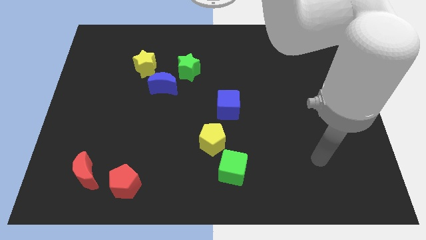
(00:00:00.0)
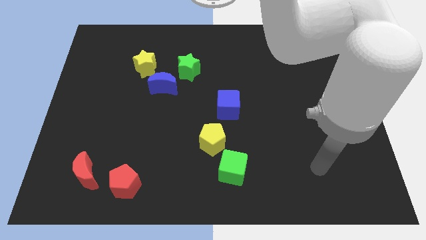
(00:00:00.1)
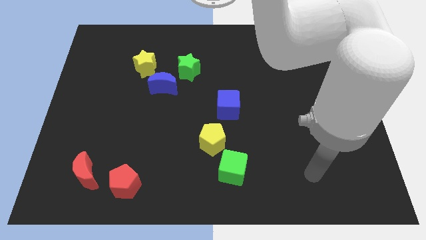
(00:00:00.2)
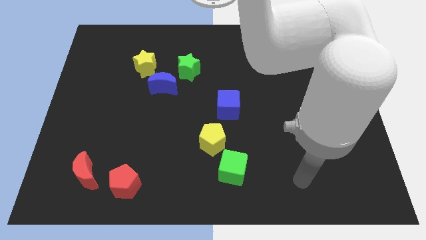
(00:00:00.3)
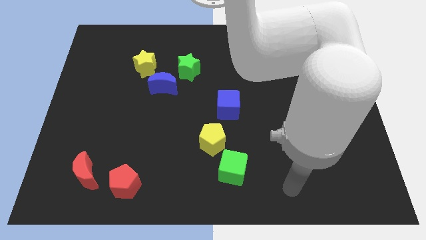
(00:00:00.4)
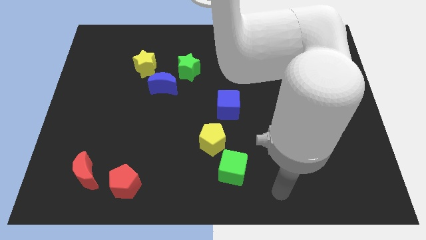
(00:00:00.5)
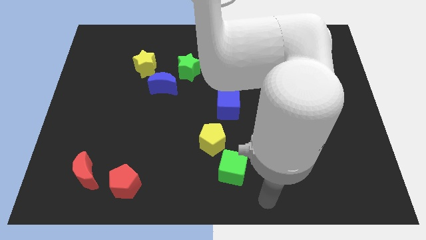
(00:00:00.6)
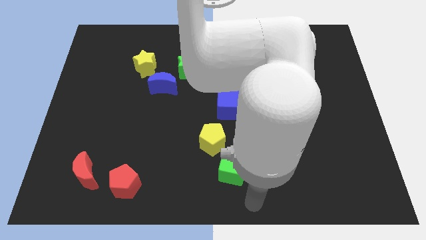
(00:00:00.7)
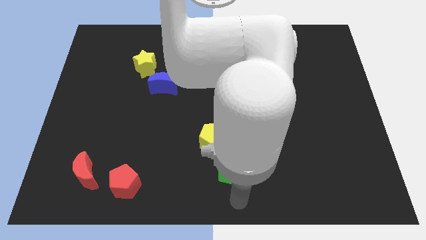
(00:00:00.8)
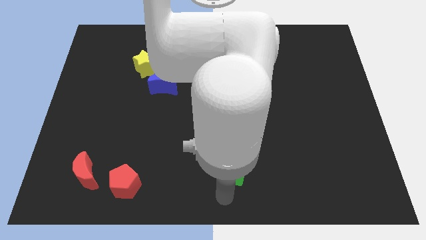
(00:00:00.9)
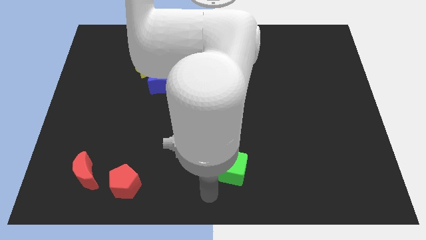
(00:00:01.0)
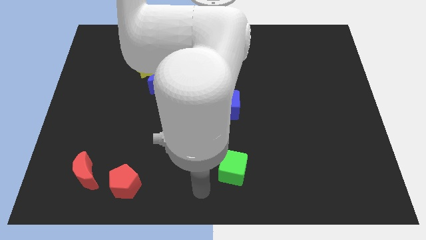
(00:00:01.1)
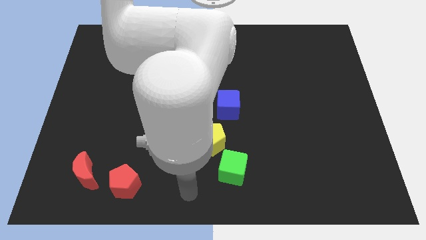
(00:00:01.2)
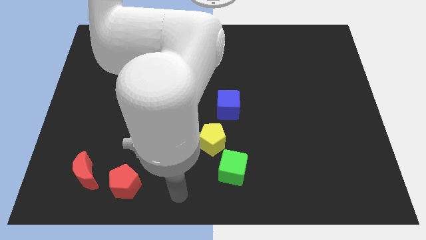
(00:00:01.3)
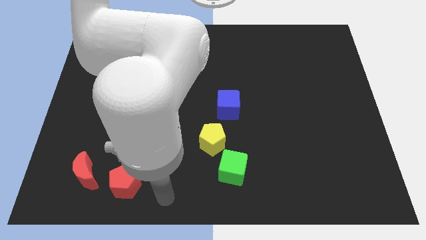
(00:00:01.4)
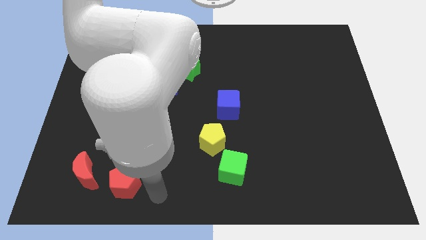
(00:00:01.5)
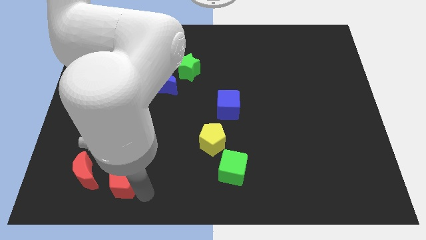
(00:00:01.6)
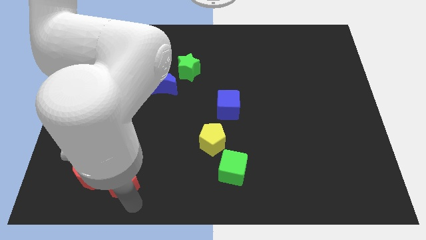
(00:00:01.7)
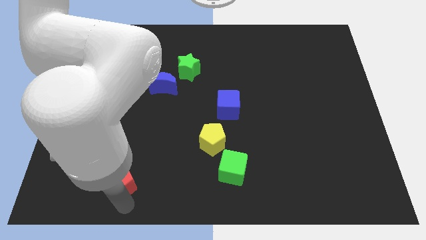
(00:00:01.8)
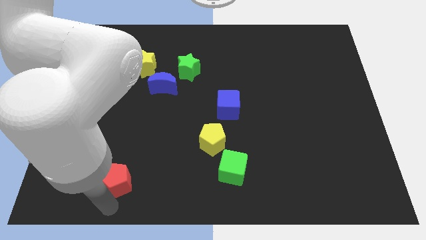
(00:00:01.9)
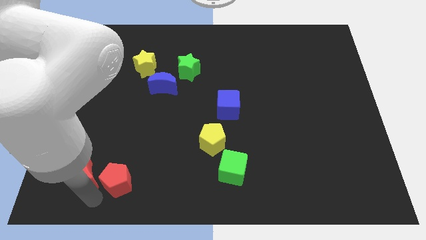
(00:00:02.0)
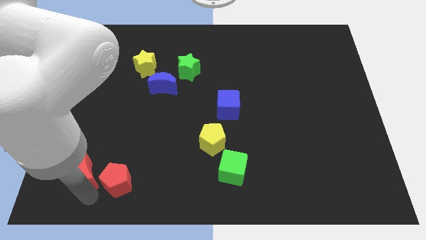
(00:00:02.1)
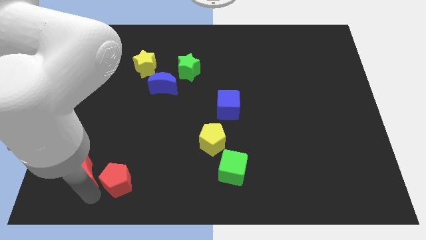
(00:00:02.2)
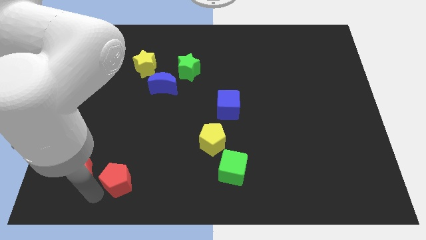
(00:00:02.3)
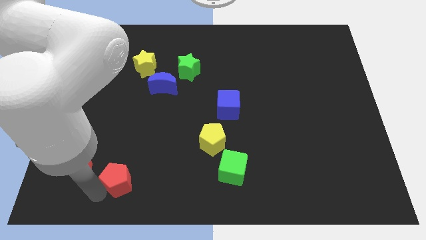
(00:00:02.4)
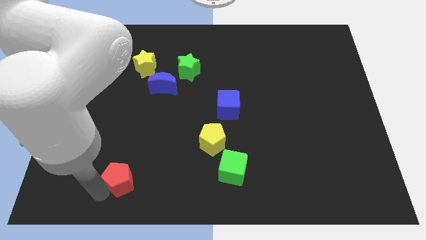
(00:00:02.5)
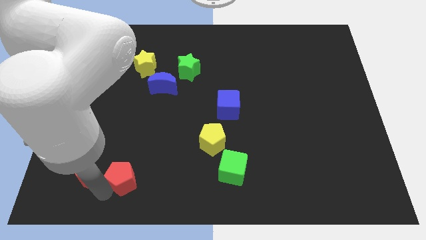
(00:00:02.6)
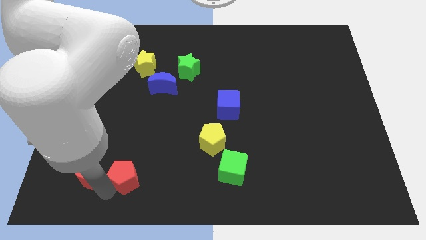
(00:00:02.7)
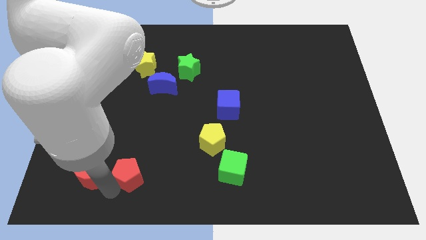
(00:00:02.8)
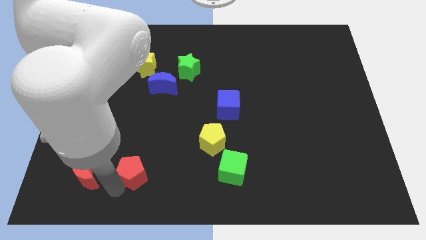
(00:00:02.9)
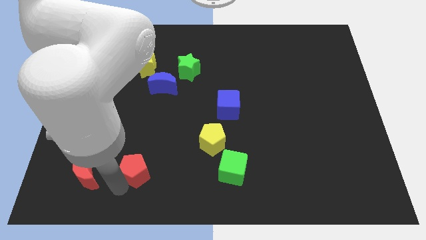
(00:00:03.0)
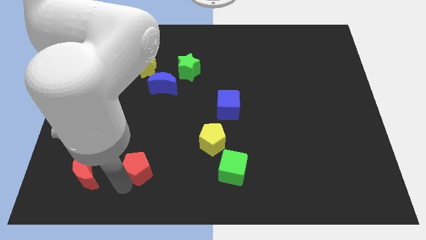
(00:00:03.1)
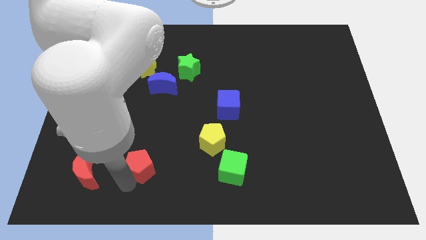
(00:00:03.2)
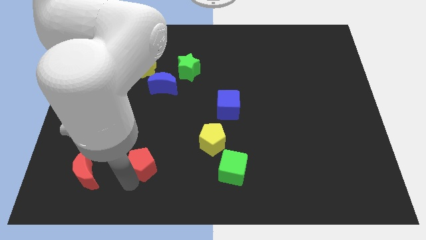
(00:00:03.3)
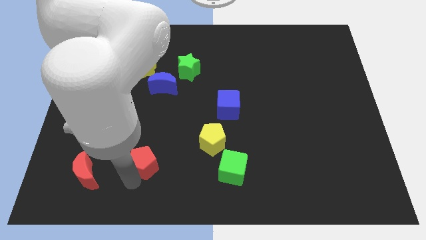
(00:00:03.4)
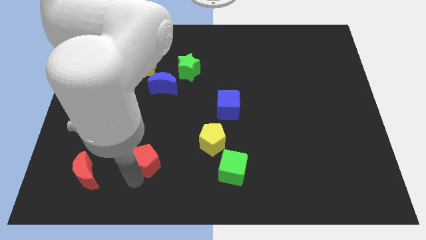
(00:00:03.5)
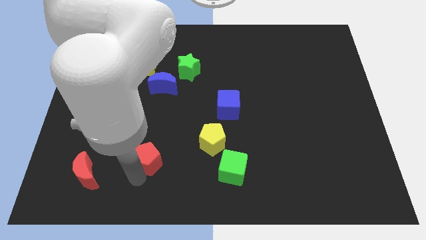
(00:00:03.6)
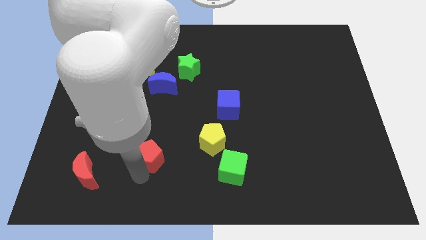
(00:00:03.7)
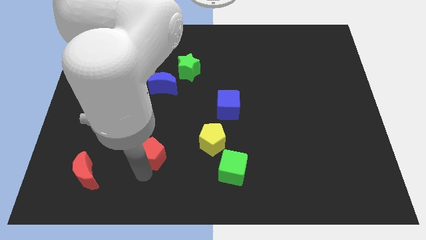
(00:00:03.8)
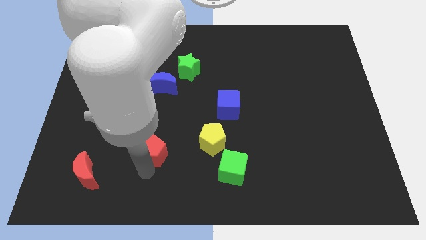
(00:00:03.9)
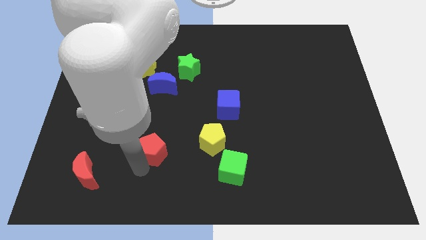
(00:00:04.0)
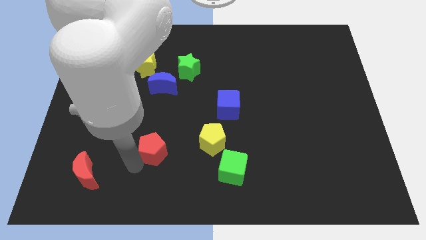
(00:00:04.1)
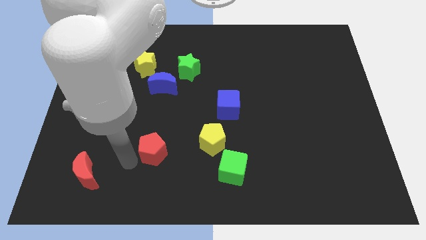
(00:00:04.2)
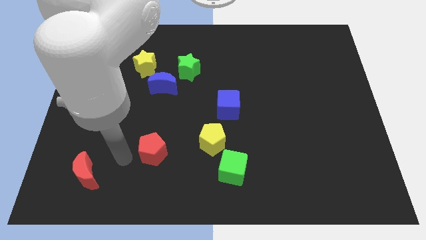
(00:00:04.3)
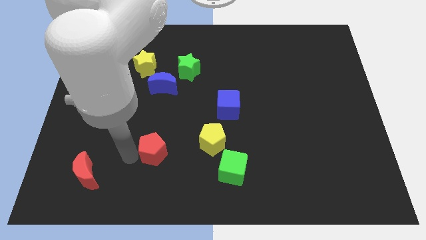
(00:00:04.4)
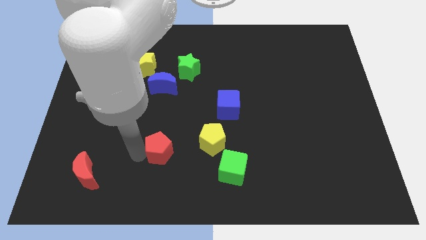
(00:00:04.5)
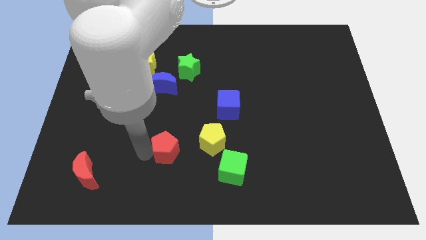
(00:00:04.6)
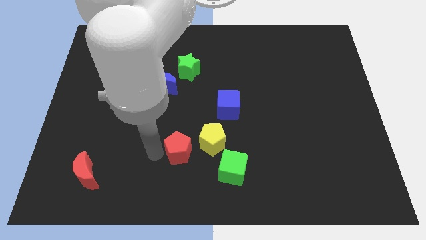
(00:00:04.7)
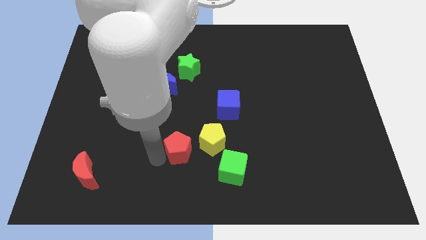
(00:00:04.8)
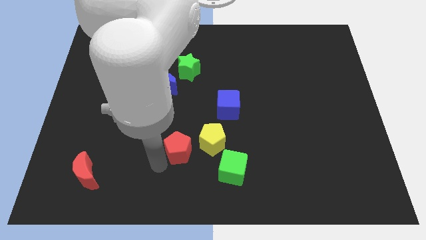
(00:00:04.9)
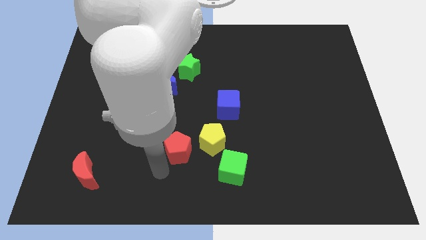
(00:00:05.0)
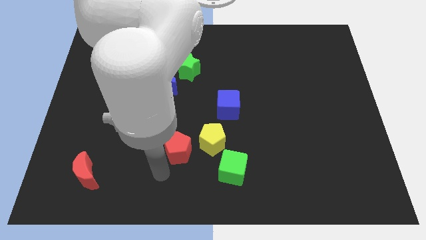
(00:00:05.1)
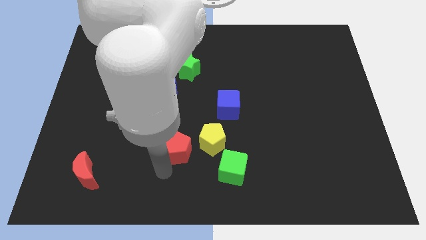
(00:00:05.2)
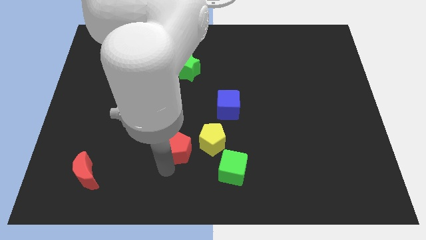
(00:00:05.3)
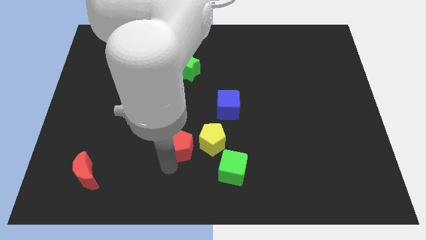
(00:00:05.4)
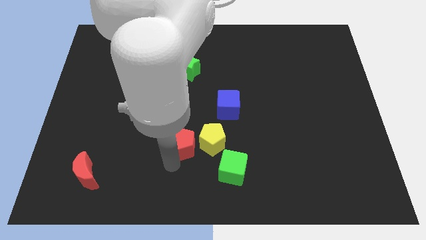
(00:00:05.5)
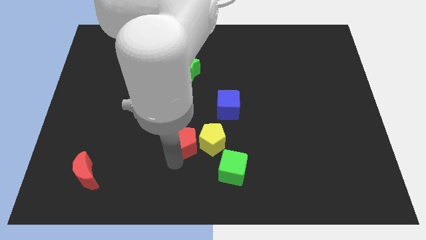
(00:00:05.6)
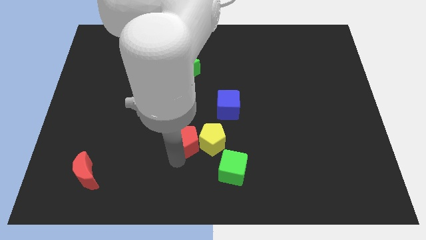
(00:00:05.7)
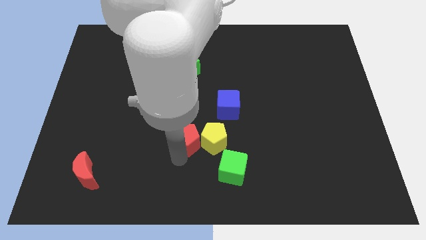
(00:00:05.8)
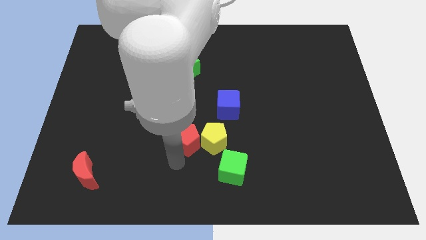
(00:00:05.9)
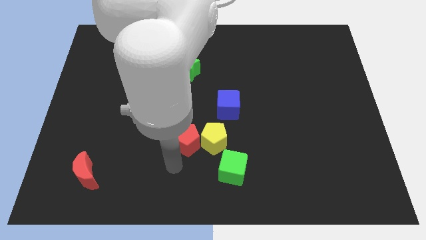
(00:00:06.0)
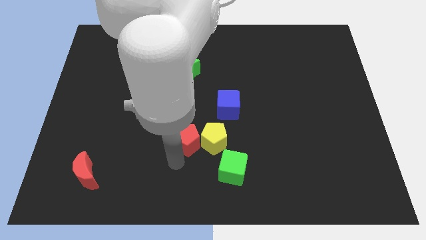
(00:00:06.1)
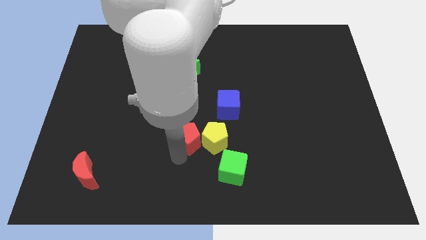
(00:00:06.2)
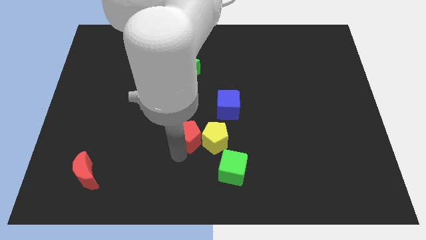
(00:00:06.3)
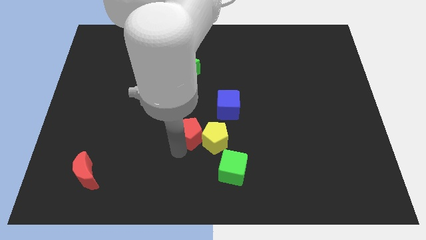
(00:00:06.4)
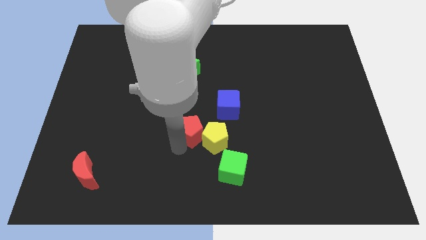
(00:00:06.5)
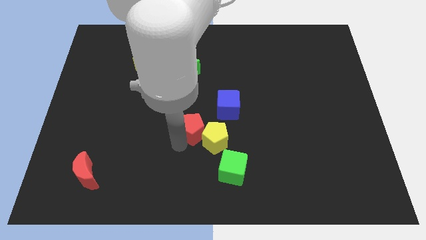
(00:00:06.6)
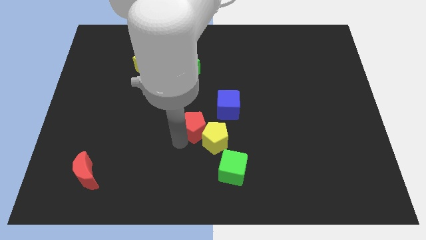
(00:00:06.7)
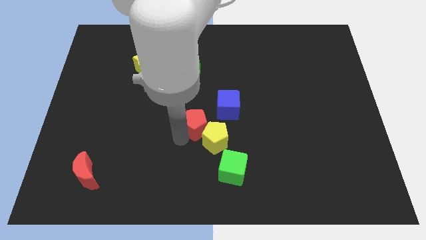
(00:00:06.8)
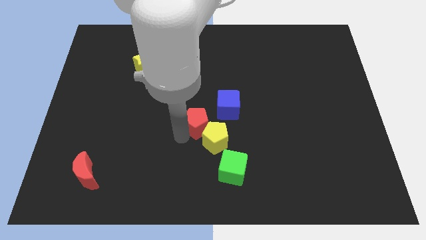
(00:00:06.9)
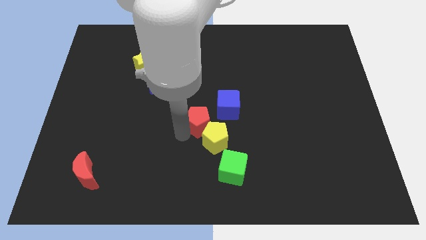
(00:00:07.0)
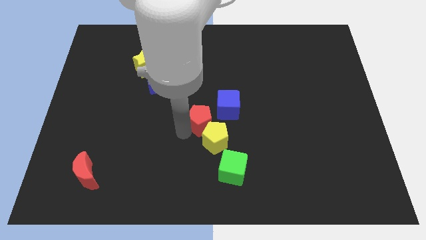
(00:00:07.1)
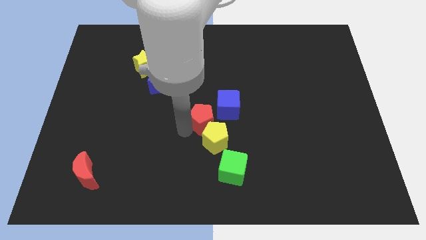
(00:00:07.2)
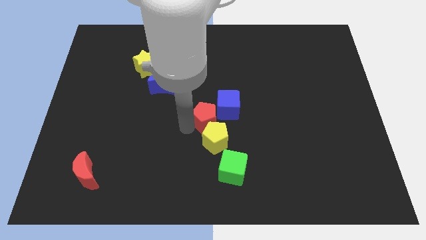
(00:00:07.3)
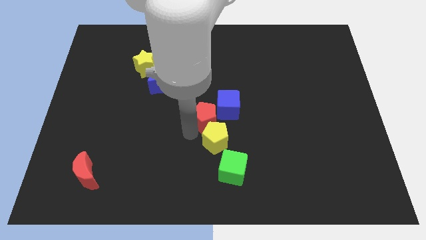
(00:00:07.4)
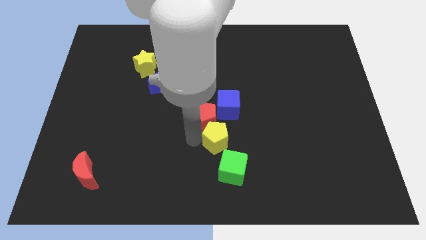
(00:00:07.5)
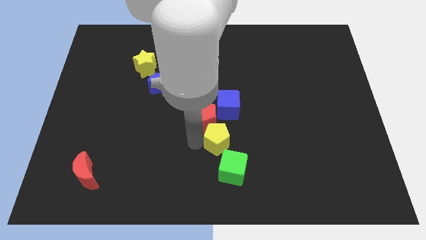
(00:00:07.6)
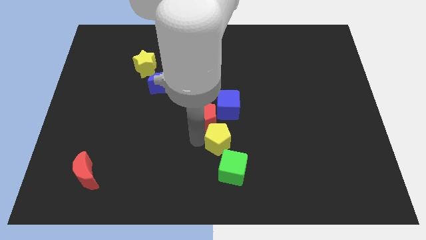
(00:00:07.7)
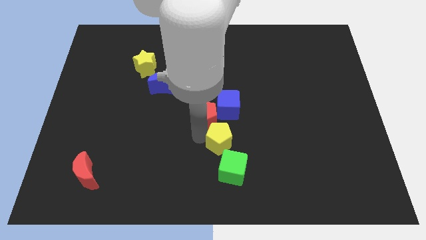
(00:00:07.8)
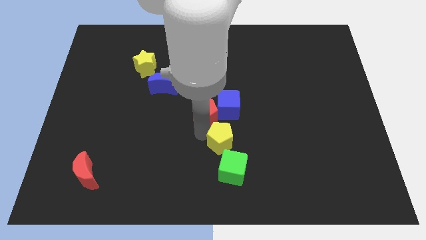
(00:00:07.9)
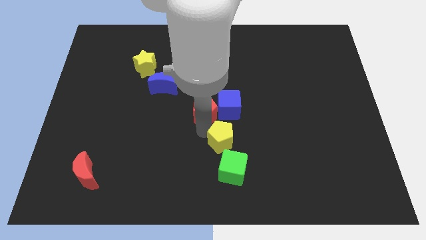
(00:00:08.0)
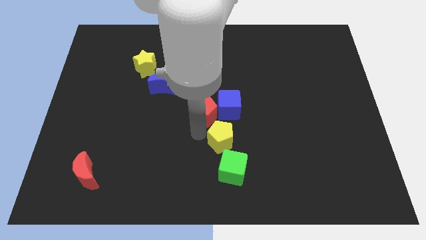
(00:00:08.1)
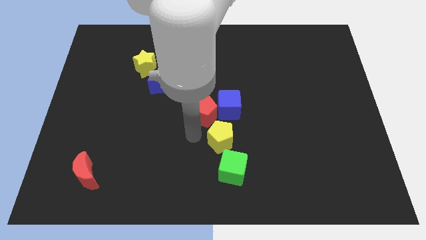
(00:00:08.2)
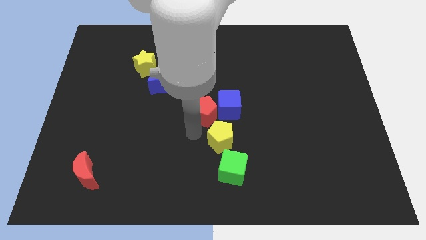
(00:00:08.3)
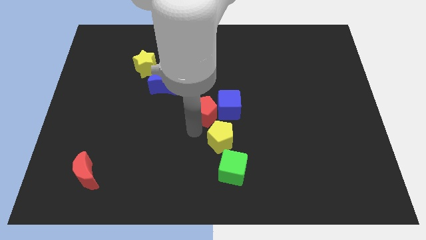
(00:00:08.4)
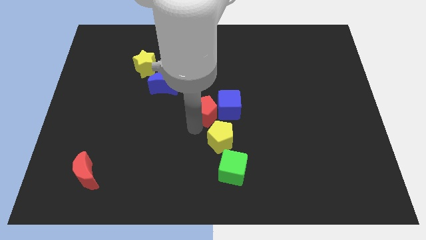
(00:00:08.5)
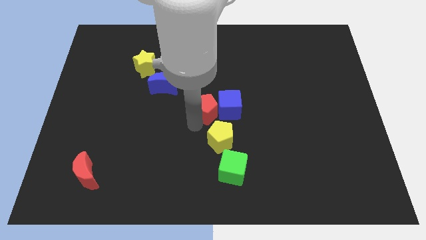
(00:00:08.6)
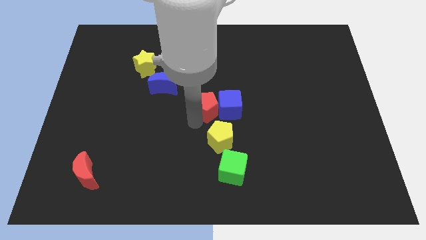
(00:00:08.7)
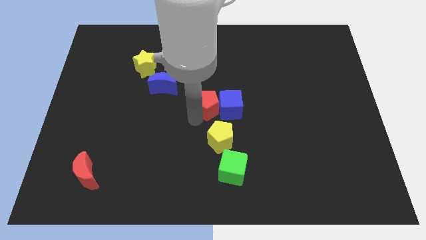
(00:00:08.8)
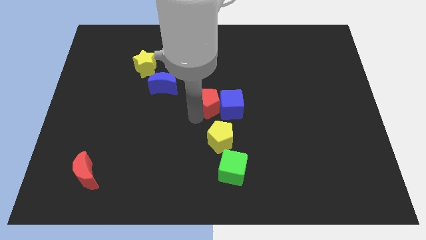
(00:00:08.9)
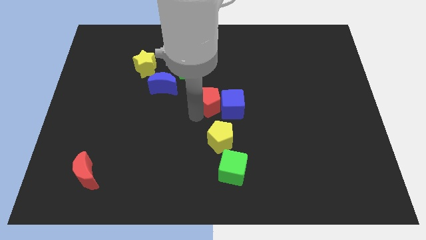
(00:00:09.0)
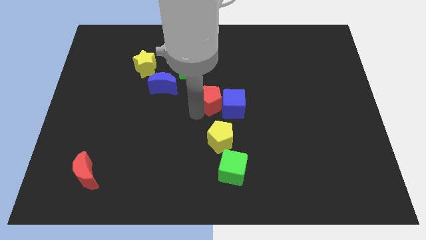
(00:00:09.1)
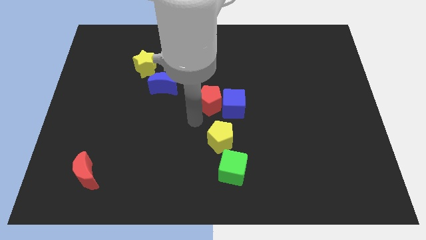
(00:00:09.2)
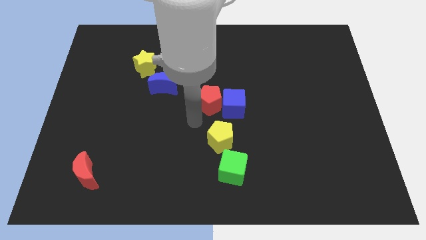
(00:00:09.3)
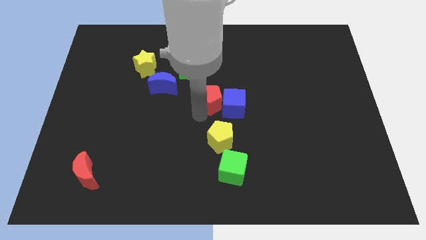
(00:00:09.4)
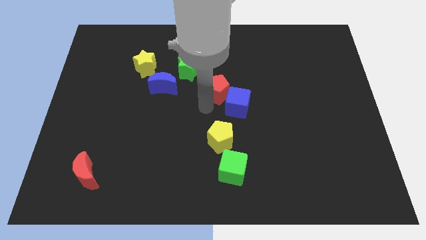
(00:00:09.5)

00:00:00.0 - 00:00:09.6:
push the red pentagon to the top of the blue cube
